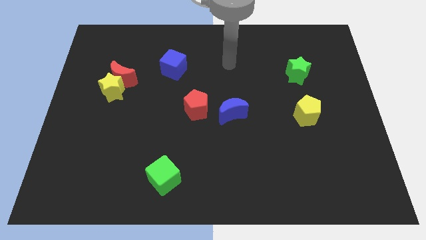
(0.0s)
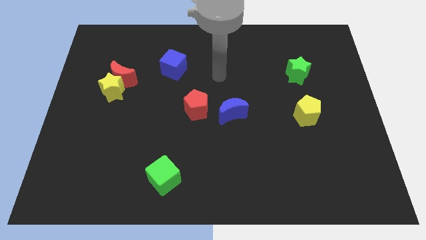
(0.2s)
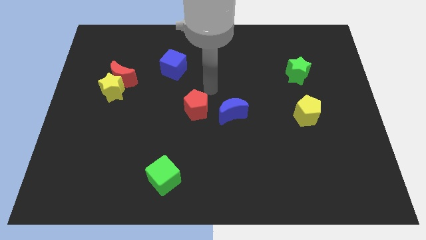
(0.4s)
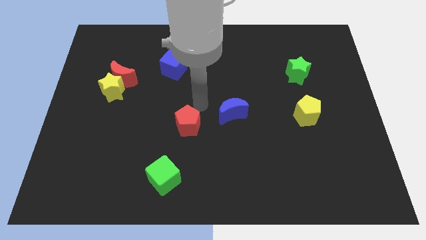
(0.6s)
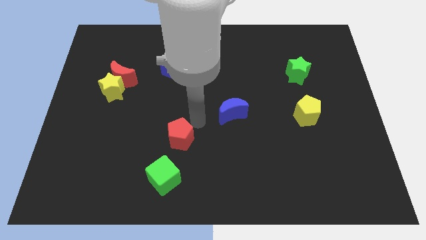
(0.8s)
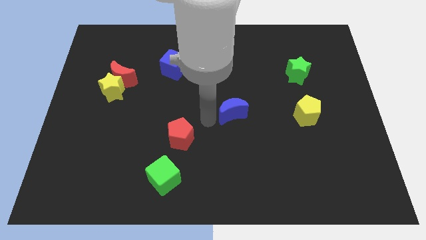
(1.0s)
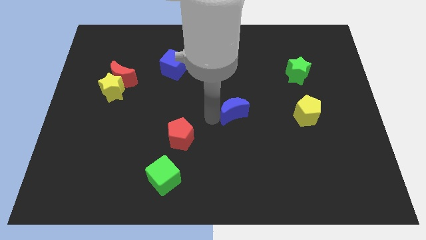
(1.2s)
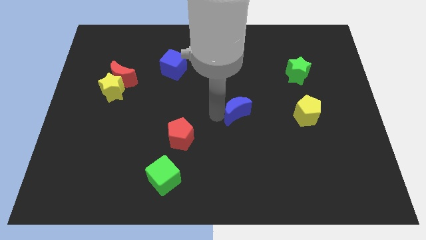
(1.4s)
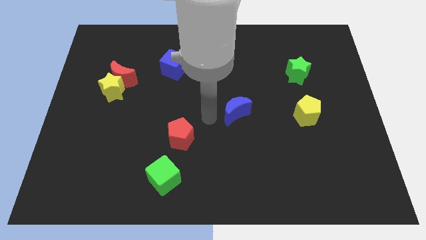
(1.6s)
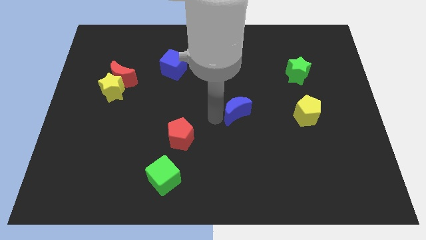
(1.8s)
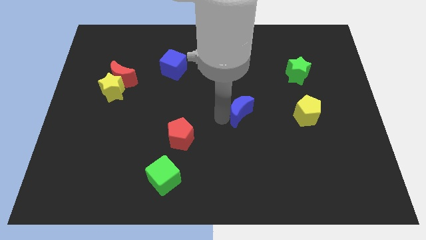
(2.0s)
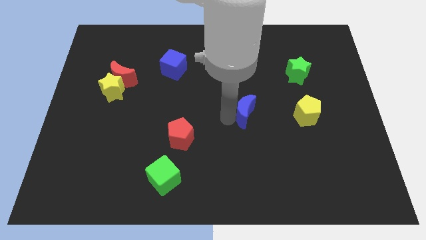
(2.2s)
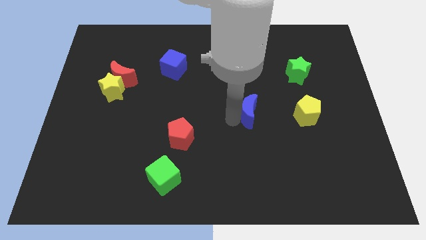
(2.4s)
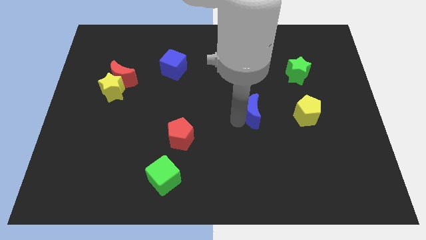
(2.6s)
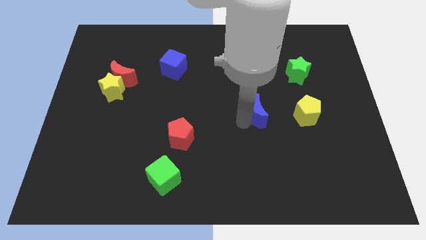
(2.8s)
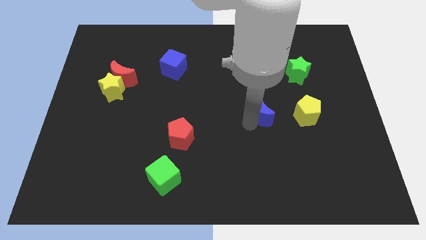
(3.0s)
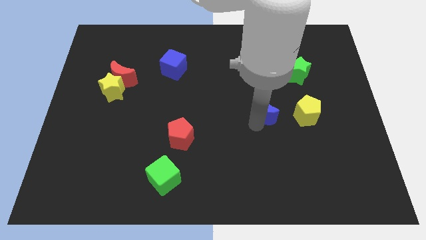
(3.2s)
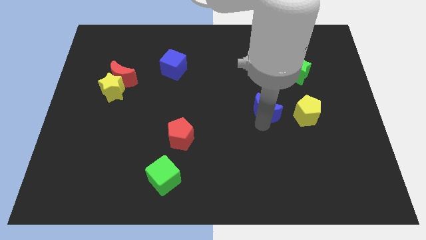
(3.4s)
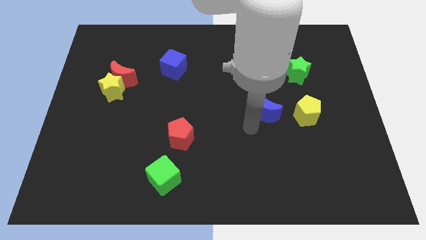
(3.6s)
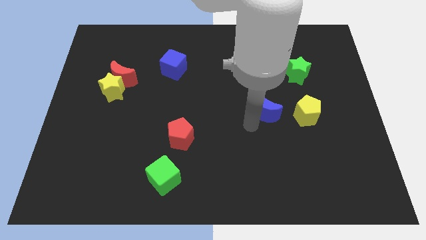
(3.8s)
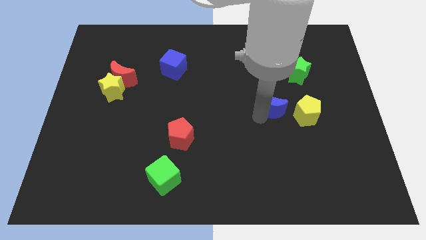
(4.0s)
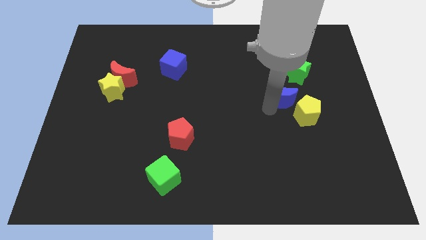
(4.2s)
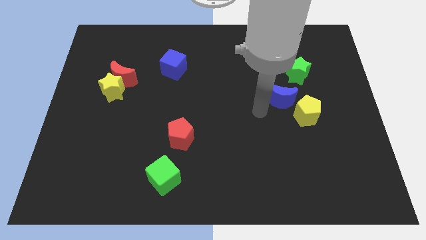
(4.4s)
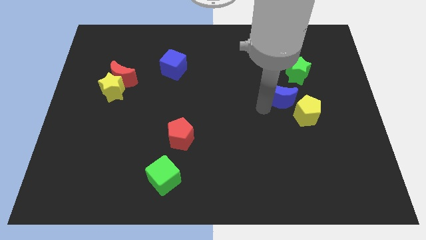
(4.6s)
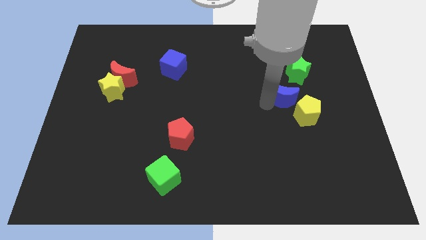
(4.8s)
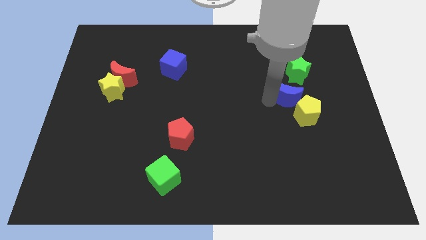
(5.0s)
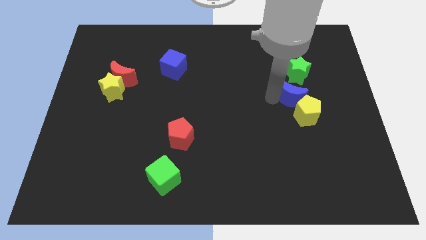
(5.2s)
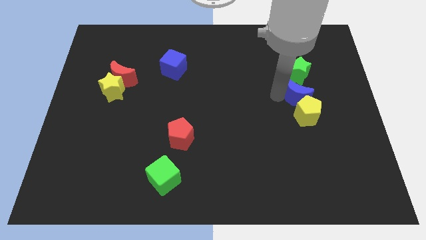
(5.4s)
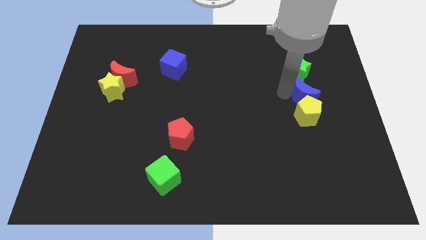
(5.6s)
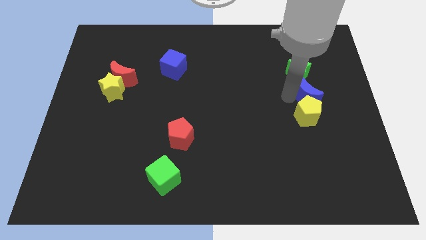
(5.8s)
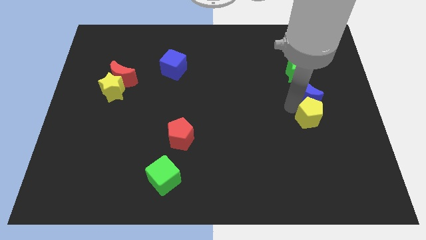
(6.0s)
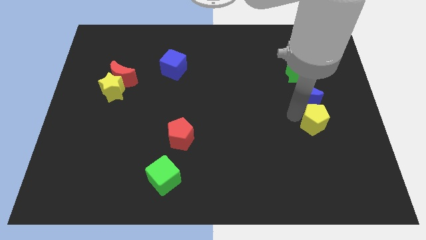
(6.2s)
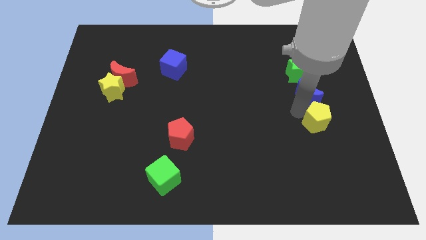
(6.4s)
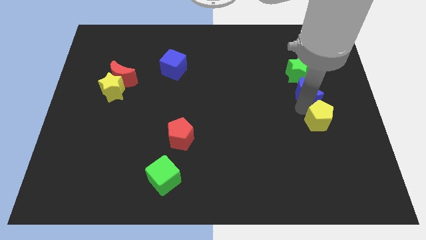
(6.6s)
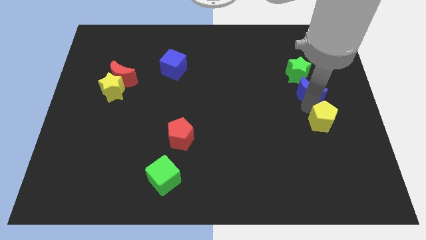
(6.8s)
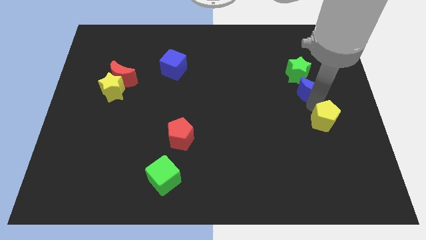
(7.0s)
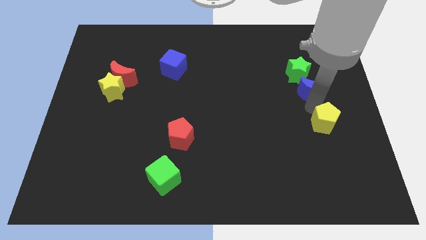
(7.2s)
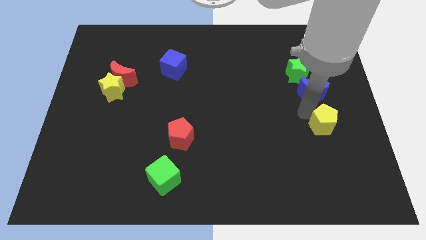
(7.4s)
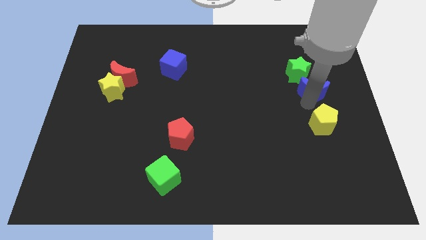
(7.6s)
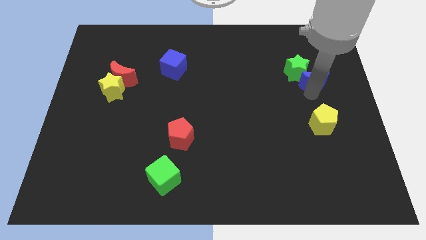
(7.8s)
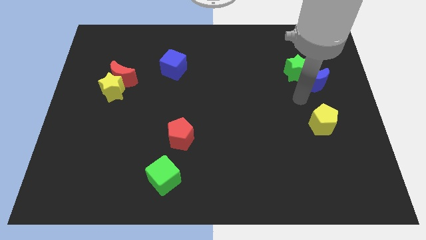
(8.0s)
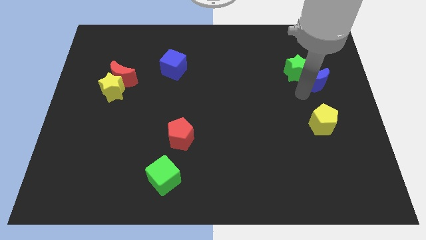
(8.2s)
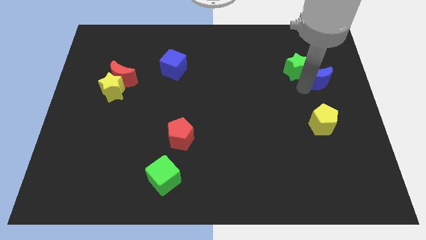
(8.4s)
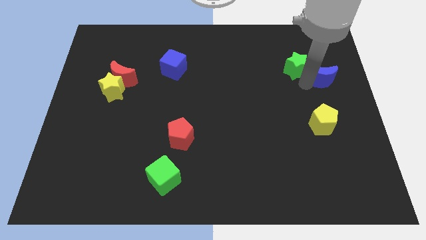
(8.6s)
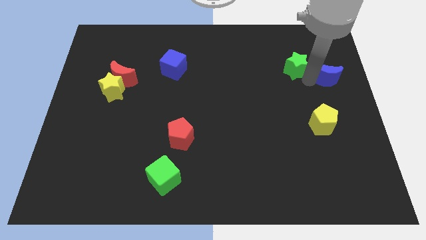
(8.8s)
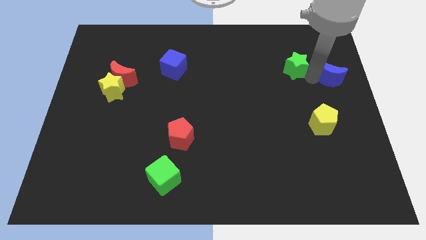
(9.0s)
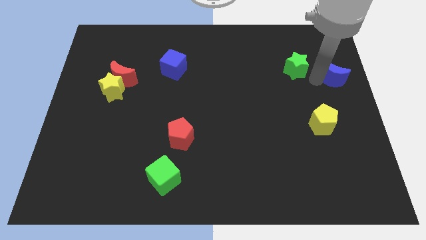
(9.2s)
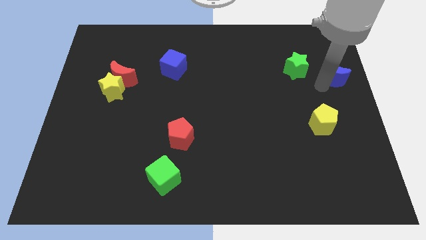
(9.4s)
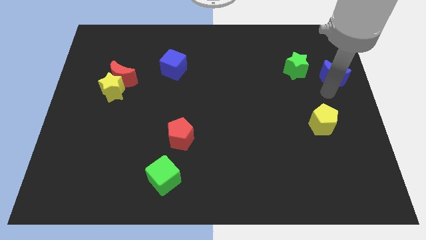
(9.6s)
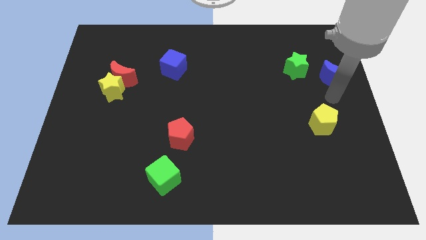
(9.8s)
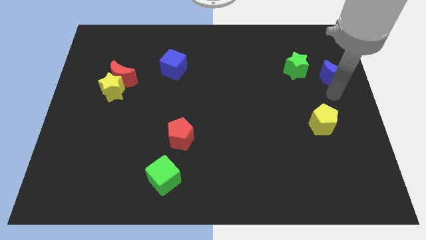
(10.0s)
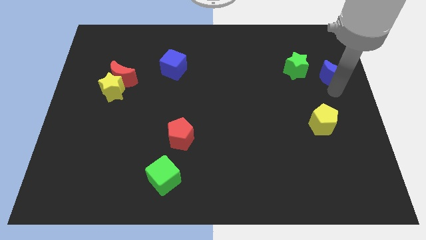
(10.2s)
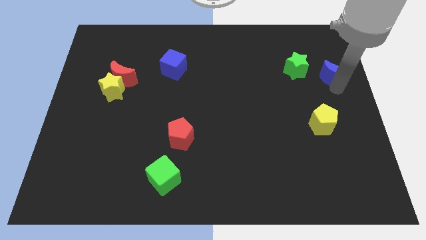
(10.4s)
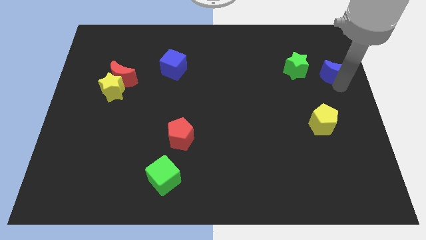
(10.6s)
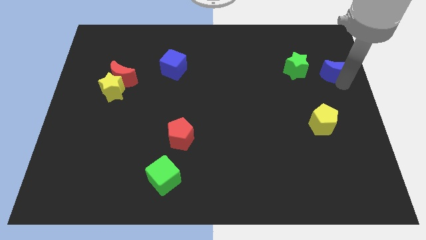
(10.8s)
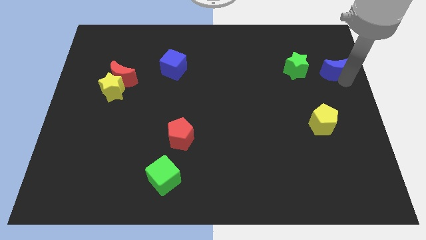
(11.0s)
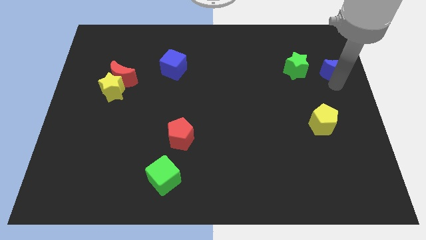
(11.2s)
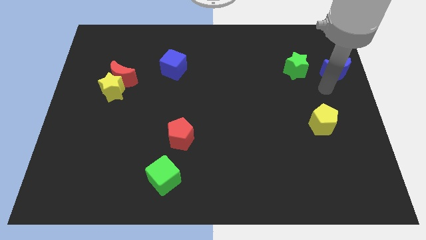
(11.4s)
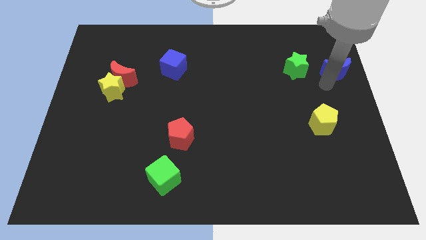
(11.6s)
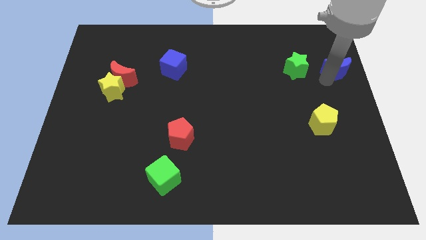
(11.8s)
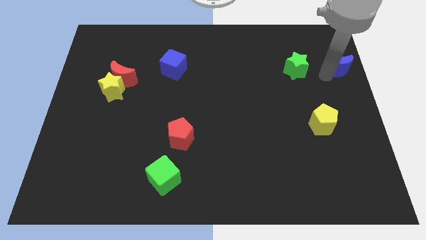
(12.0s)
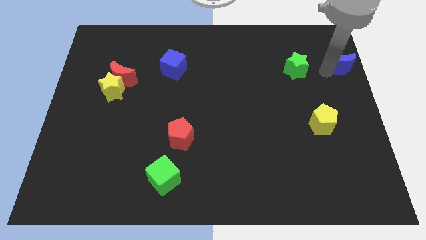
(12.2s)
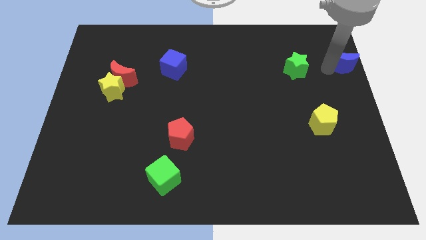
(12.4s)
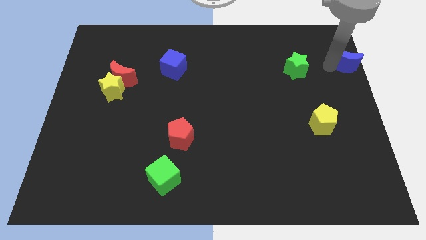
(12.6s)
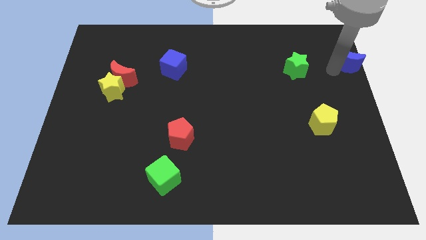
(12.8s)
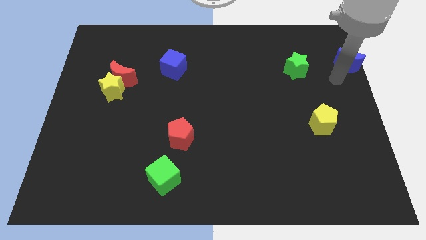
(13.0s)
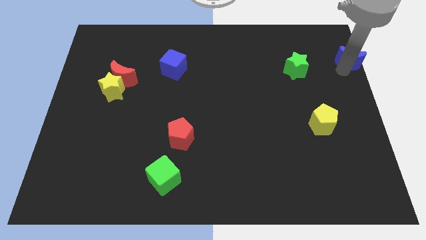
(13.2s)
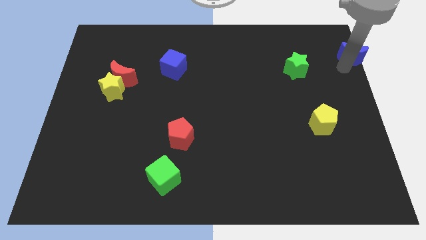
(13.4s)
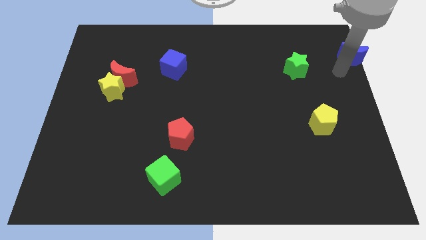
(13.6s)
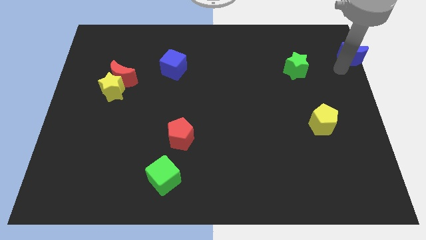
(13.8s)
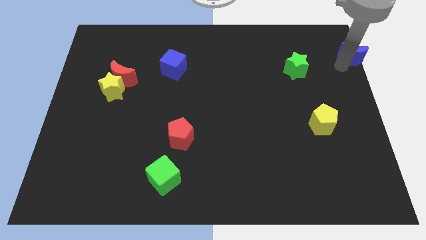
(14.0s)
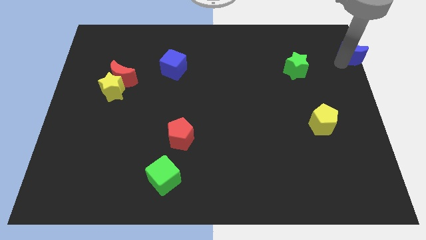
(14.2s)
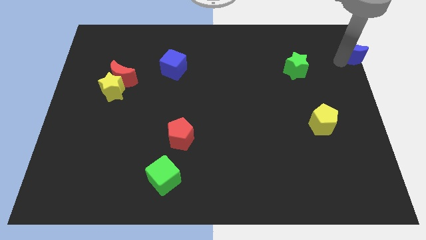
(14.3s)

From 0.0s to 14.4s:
push the blue moon to the top right of the board

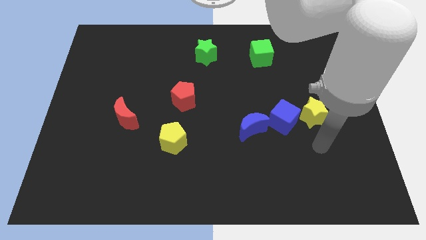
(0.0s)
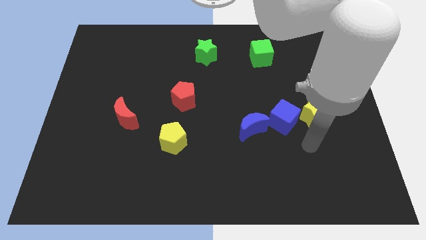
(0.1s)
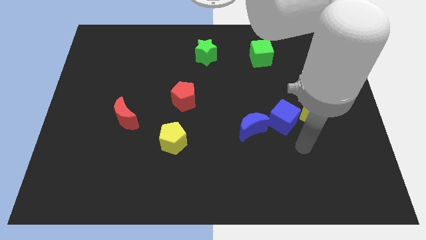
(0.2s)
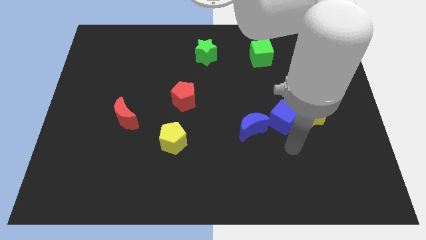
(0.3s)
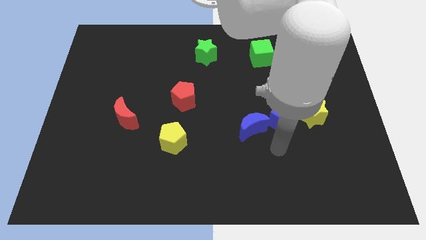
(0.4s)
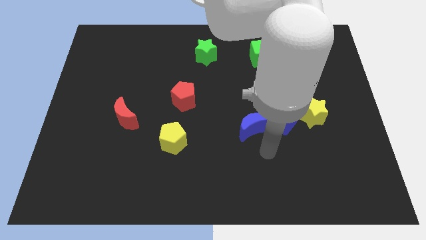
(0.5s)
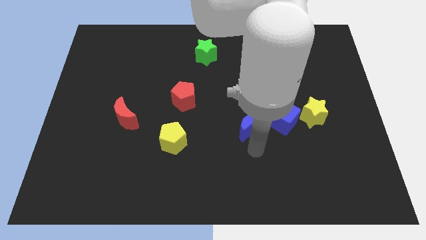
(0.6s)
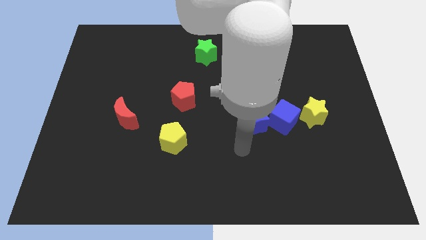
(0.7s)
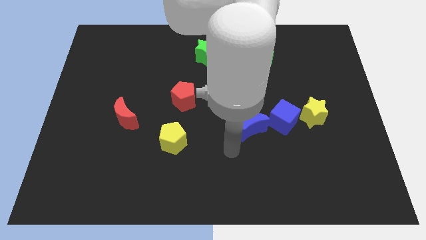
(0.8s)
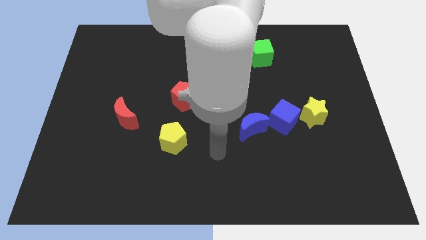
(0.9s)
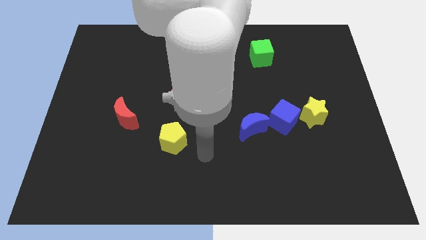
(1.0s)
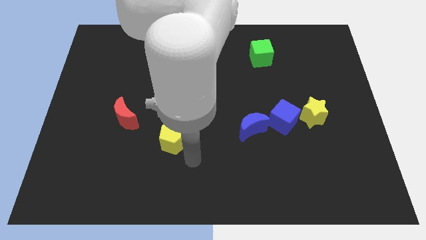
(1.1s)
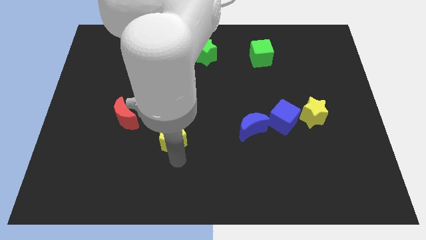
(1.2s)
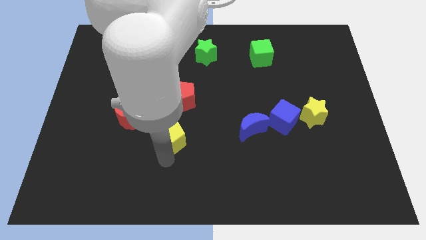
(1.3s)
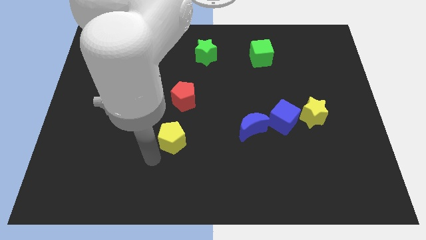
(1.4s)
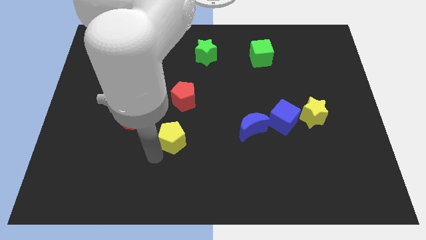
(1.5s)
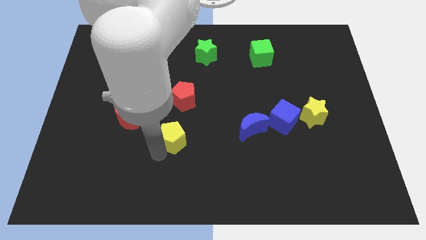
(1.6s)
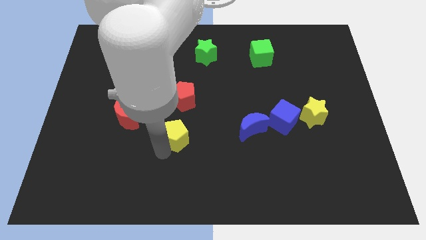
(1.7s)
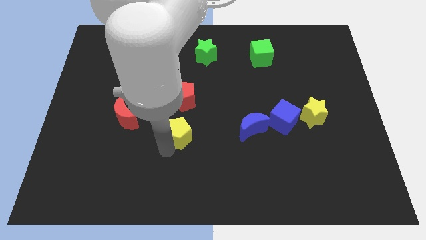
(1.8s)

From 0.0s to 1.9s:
push the yellow pentagon to the center
